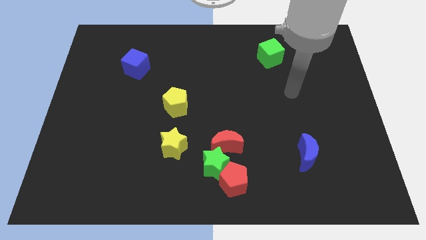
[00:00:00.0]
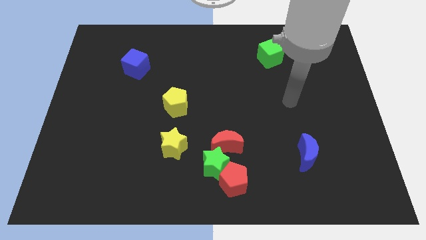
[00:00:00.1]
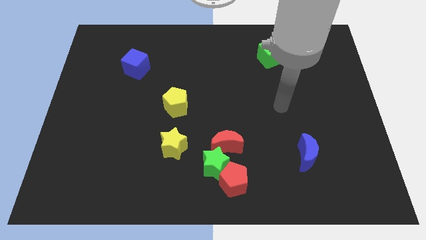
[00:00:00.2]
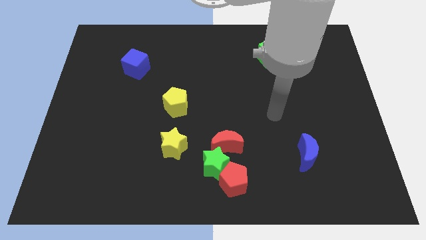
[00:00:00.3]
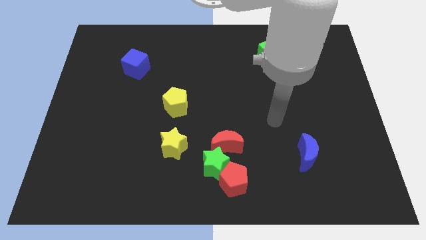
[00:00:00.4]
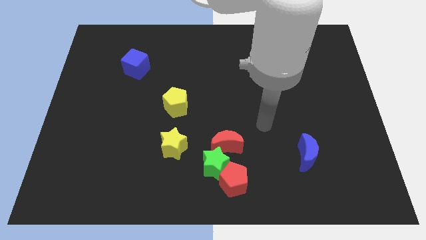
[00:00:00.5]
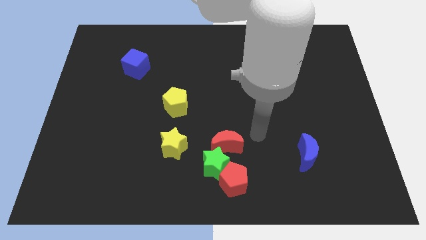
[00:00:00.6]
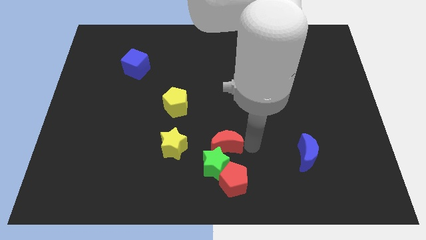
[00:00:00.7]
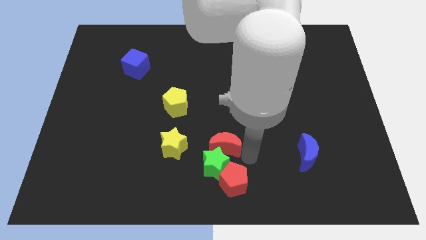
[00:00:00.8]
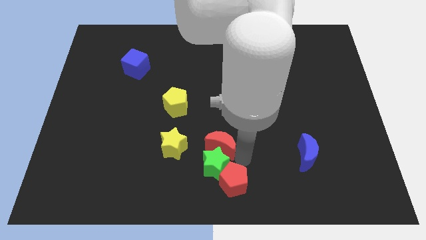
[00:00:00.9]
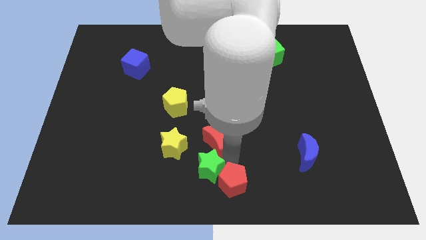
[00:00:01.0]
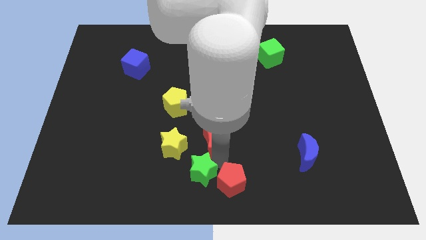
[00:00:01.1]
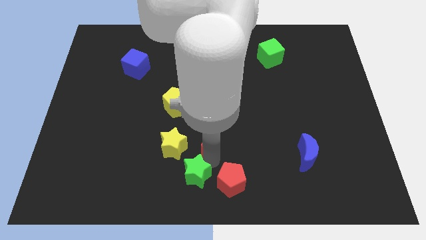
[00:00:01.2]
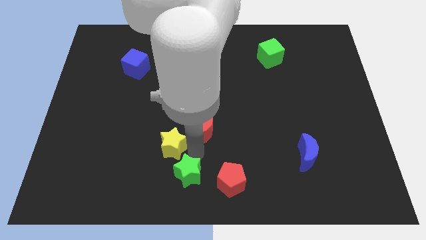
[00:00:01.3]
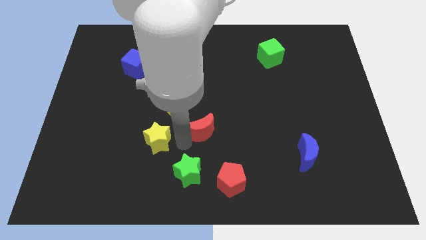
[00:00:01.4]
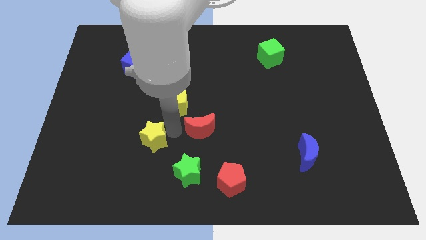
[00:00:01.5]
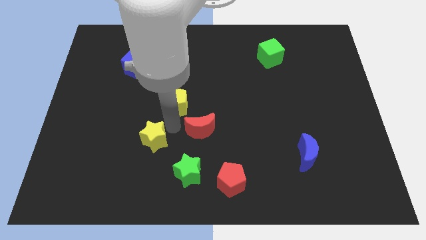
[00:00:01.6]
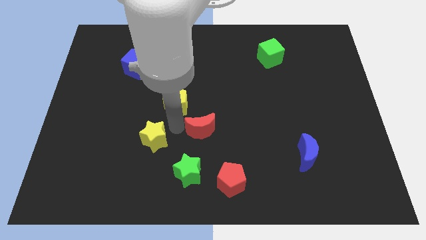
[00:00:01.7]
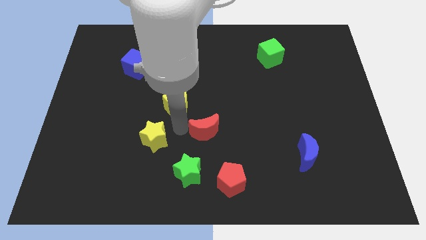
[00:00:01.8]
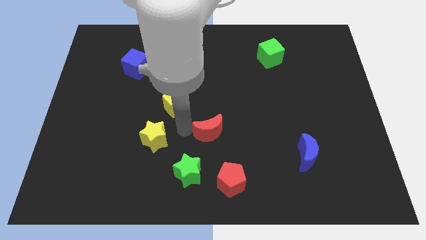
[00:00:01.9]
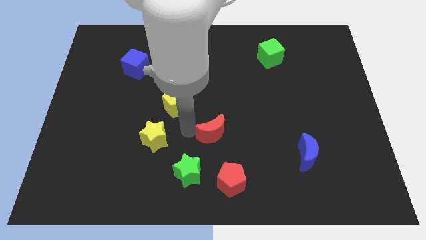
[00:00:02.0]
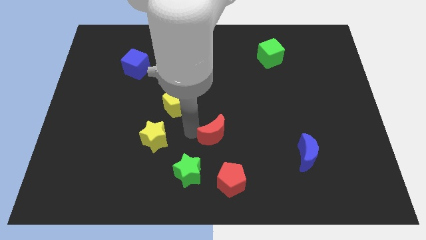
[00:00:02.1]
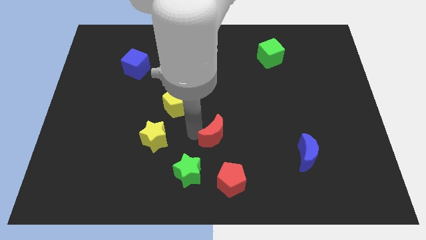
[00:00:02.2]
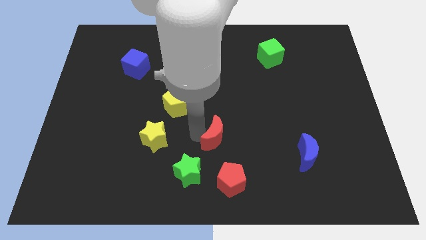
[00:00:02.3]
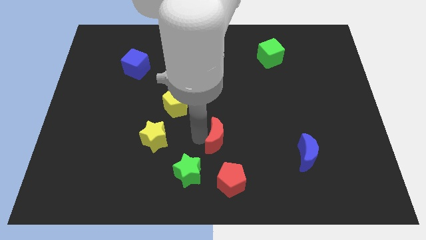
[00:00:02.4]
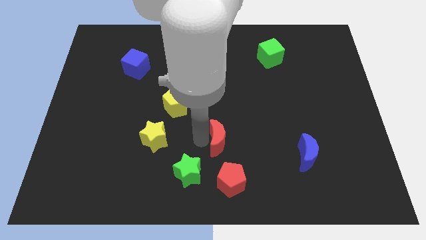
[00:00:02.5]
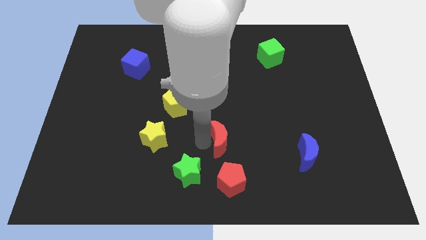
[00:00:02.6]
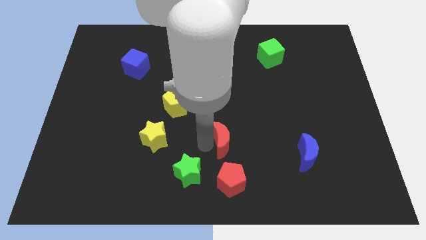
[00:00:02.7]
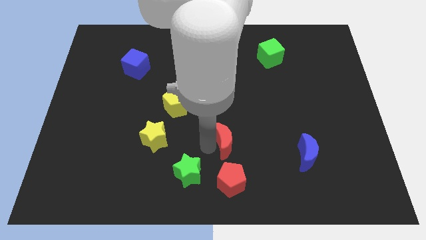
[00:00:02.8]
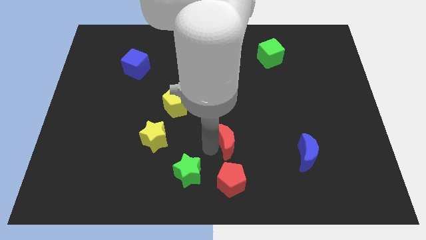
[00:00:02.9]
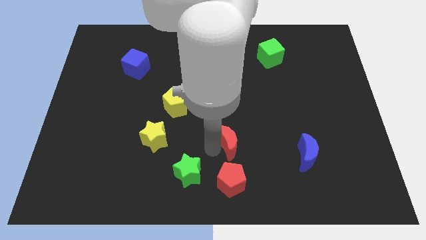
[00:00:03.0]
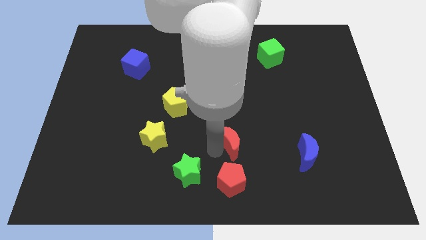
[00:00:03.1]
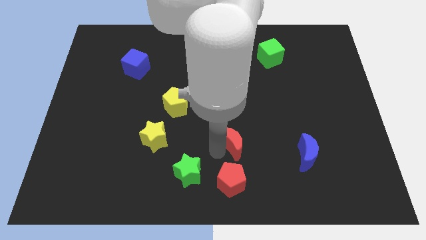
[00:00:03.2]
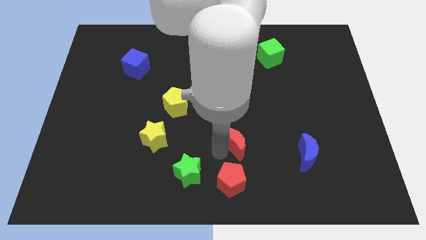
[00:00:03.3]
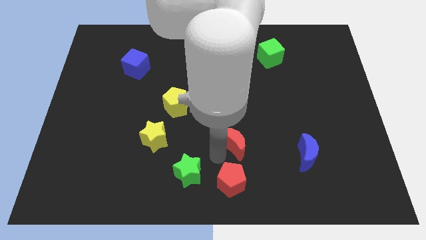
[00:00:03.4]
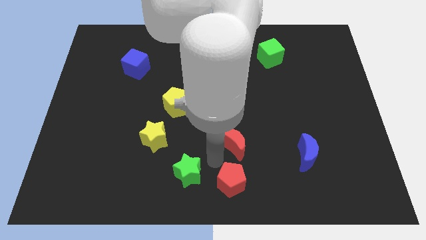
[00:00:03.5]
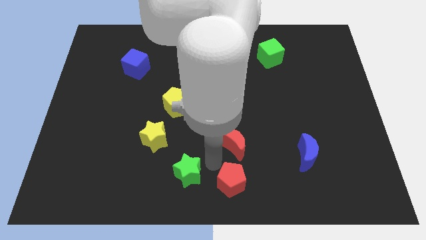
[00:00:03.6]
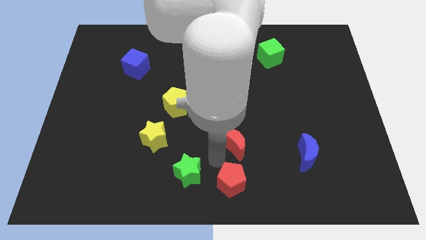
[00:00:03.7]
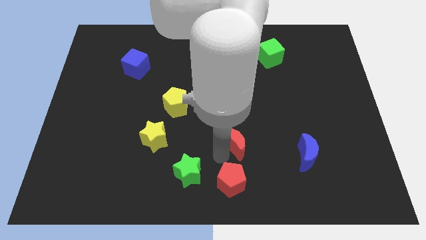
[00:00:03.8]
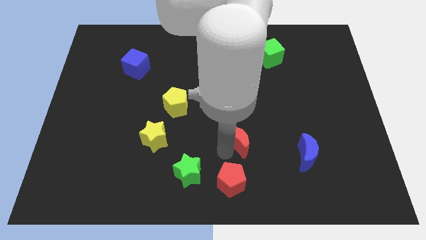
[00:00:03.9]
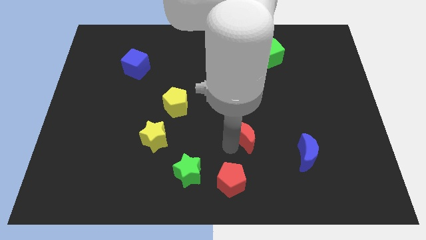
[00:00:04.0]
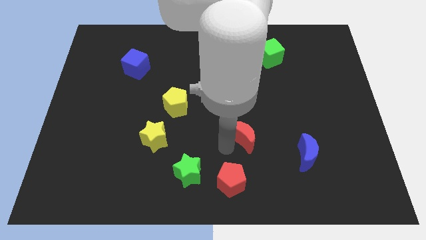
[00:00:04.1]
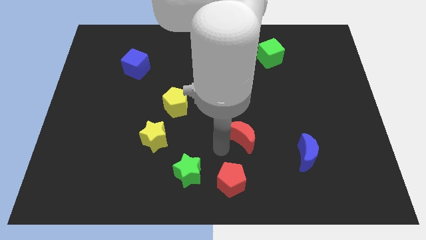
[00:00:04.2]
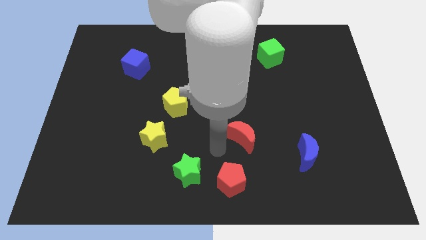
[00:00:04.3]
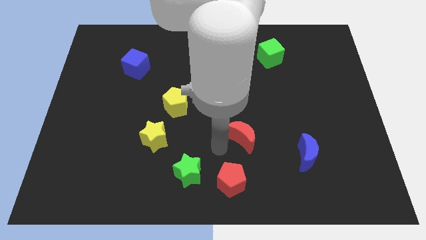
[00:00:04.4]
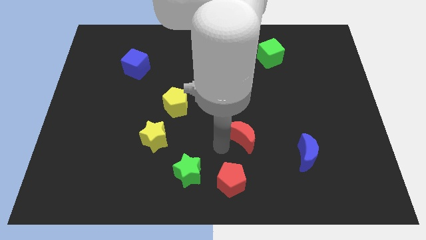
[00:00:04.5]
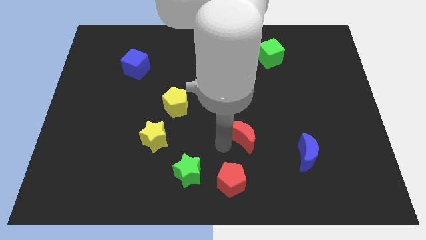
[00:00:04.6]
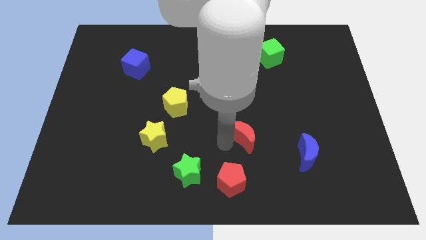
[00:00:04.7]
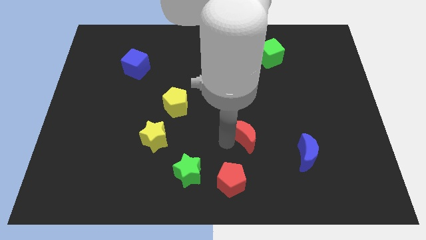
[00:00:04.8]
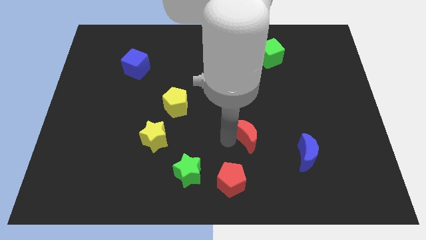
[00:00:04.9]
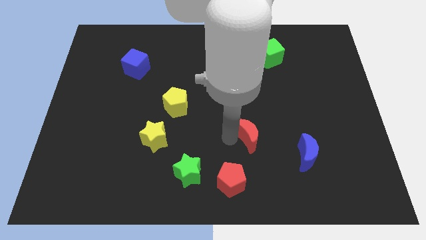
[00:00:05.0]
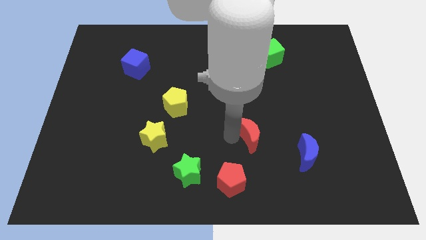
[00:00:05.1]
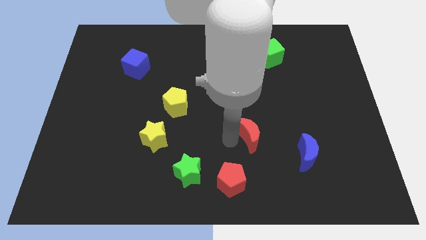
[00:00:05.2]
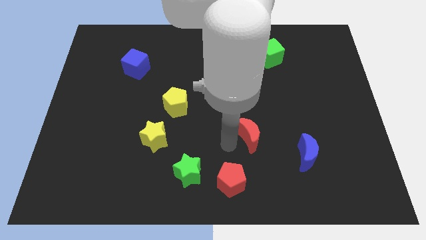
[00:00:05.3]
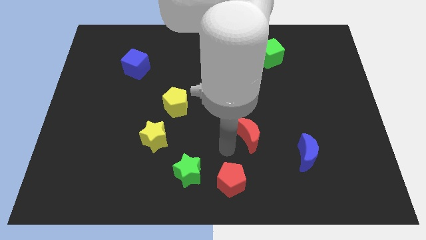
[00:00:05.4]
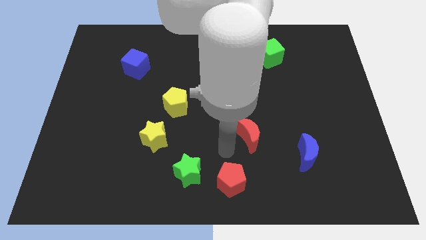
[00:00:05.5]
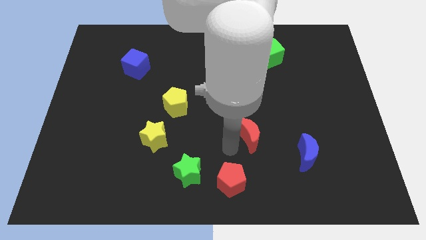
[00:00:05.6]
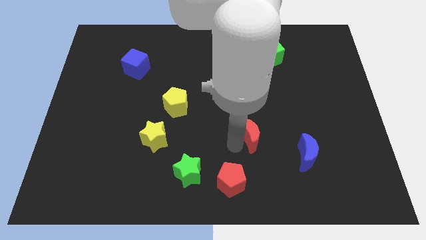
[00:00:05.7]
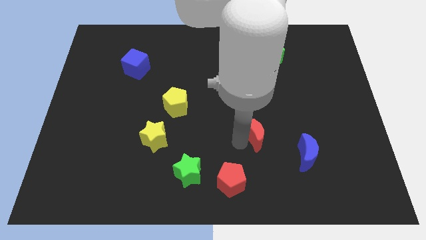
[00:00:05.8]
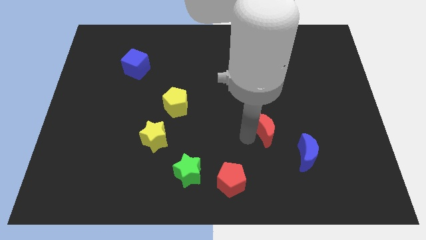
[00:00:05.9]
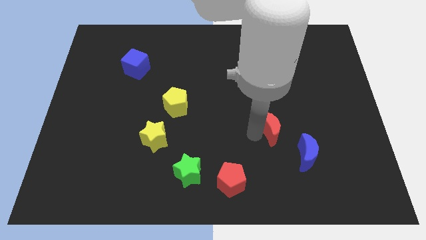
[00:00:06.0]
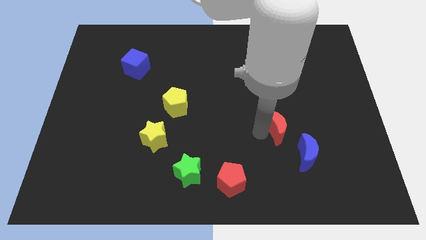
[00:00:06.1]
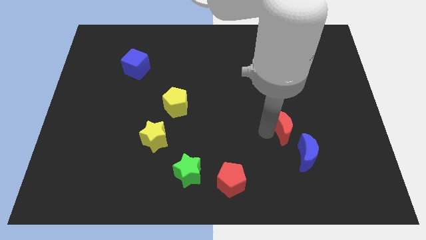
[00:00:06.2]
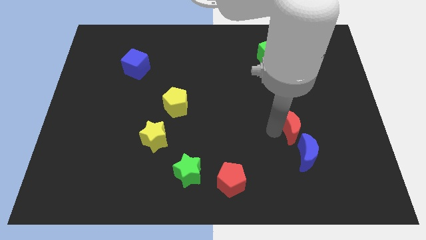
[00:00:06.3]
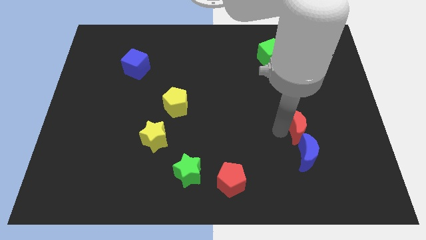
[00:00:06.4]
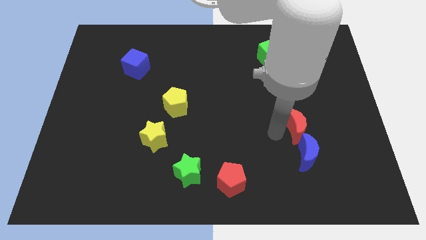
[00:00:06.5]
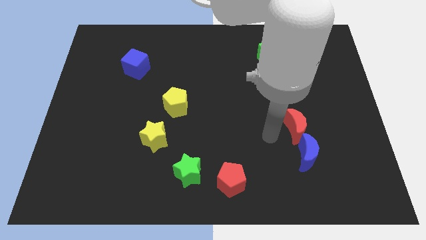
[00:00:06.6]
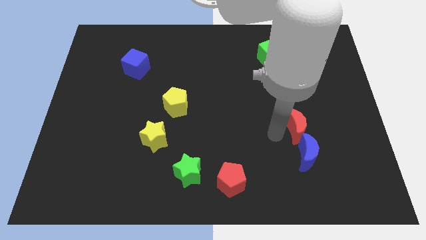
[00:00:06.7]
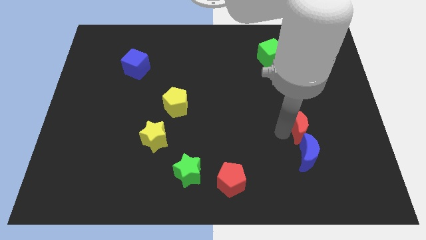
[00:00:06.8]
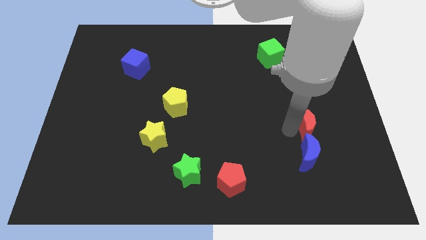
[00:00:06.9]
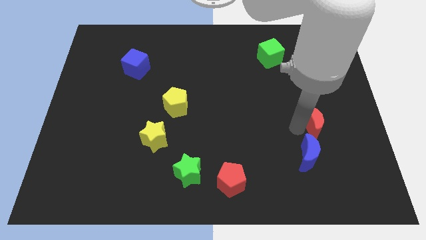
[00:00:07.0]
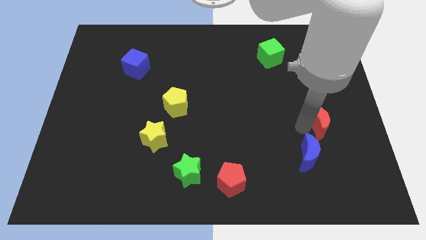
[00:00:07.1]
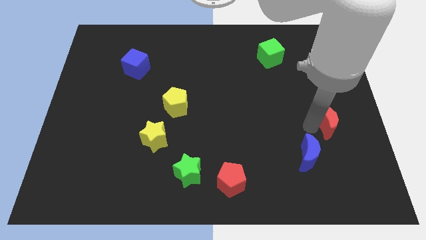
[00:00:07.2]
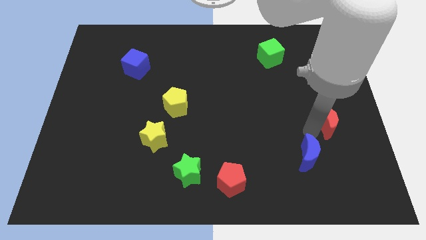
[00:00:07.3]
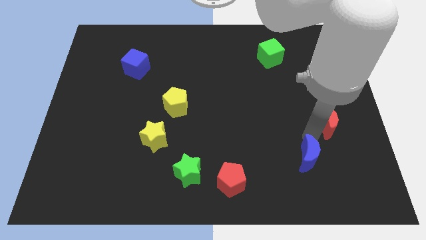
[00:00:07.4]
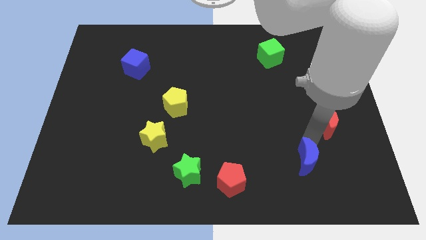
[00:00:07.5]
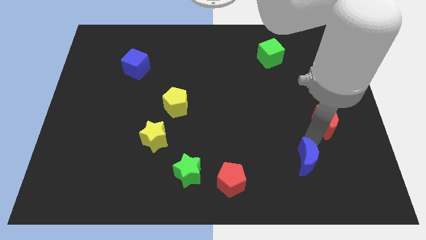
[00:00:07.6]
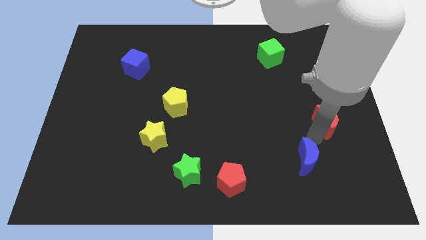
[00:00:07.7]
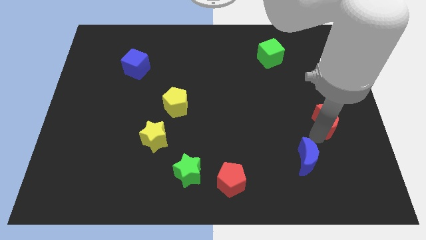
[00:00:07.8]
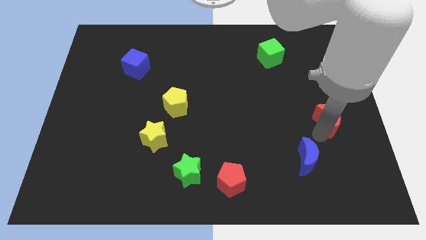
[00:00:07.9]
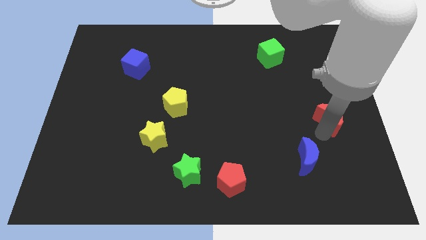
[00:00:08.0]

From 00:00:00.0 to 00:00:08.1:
push the red moon to the right side
